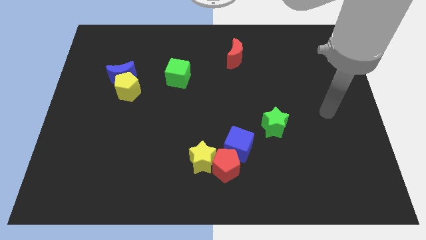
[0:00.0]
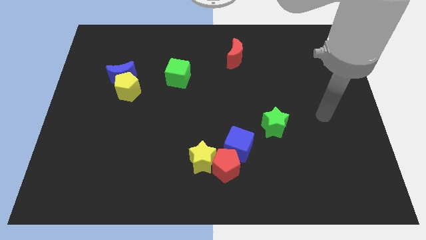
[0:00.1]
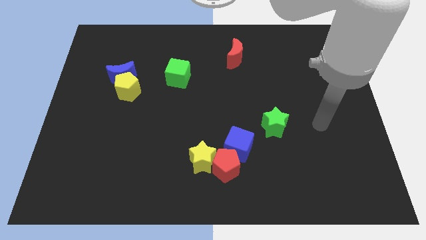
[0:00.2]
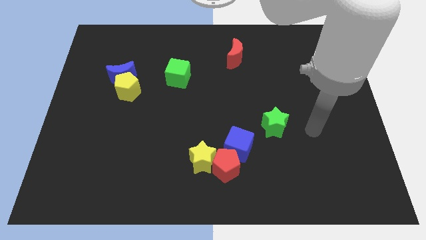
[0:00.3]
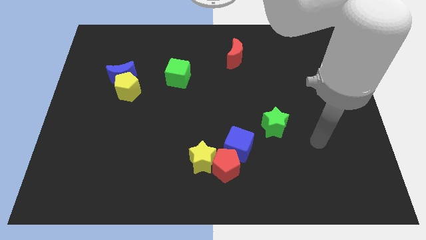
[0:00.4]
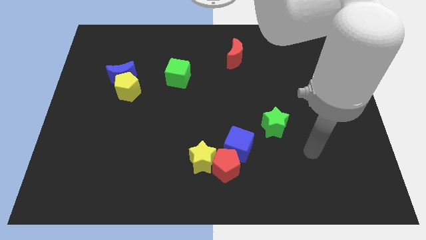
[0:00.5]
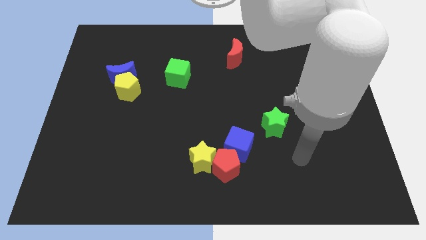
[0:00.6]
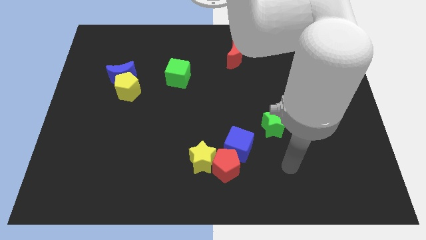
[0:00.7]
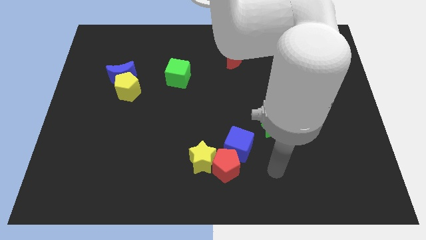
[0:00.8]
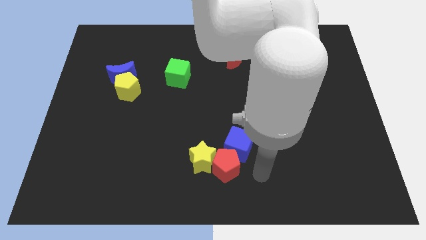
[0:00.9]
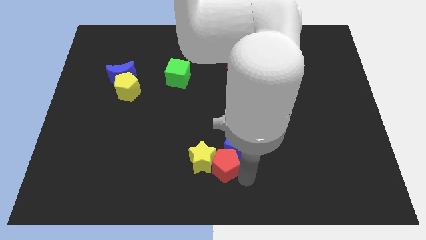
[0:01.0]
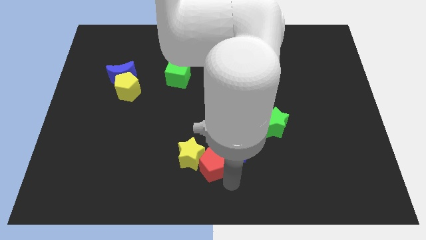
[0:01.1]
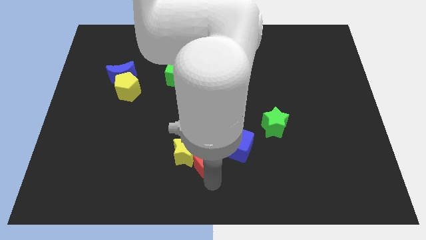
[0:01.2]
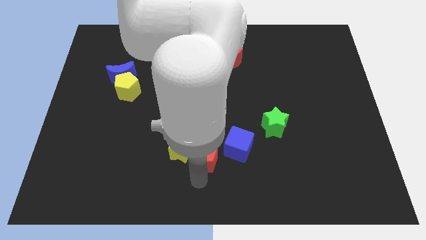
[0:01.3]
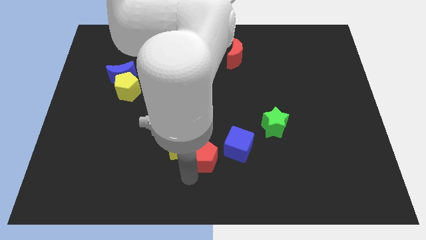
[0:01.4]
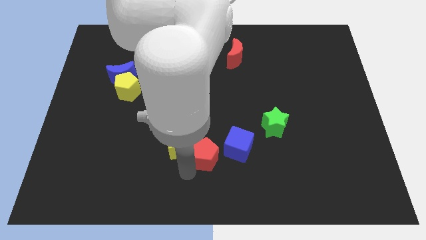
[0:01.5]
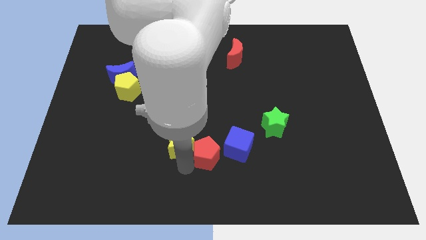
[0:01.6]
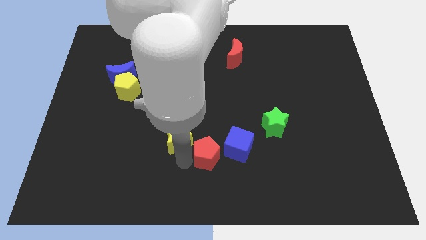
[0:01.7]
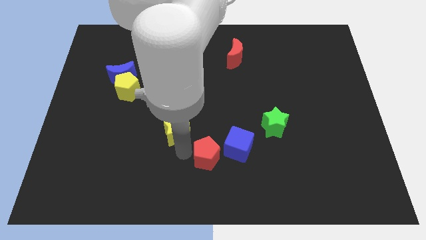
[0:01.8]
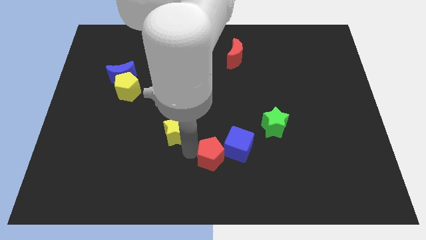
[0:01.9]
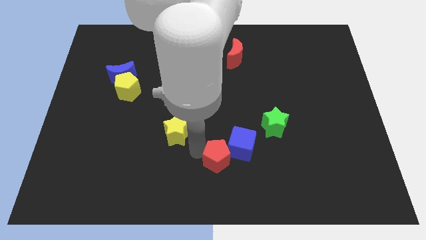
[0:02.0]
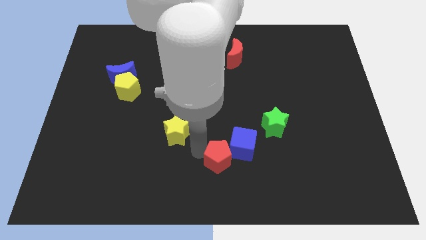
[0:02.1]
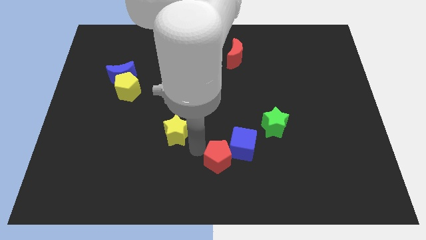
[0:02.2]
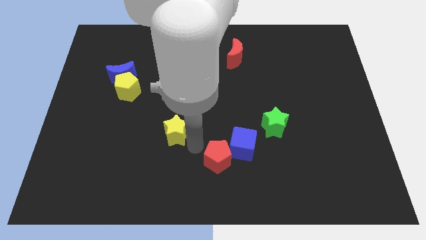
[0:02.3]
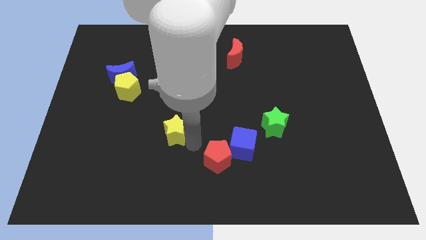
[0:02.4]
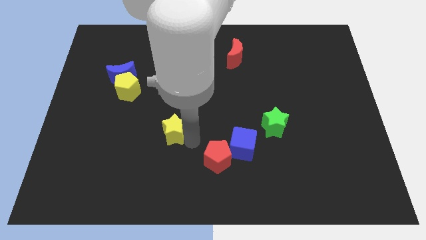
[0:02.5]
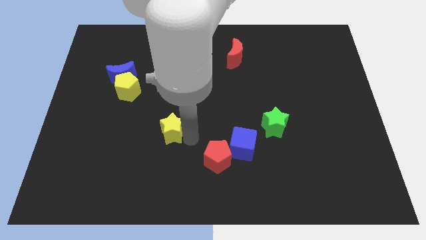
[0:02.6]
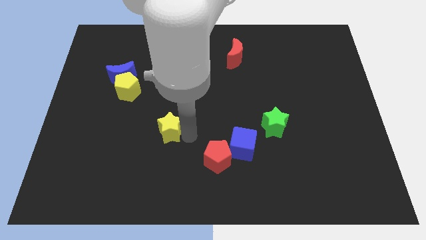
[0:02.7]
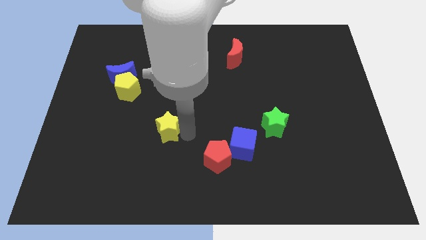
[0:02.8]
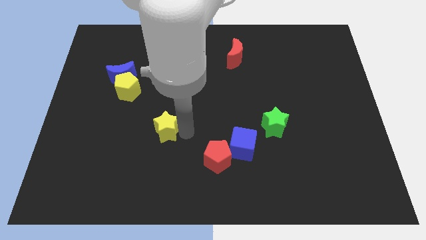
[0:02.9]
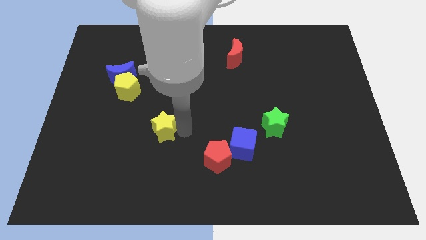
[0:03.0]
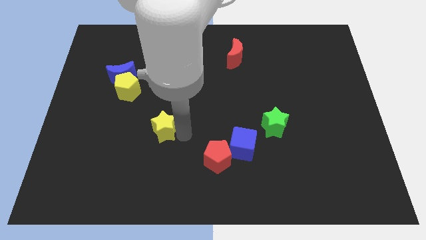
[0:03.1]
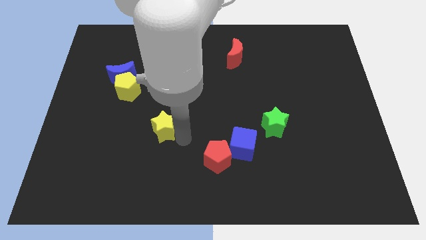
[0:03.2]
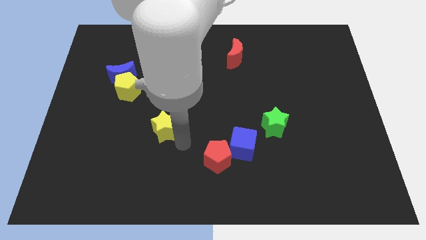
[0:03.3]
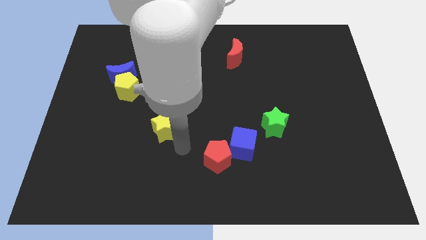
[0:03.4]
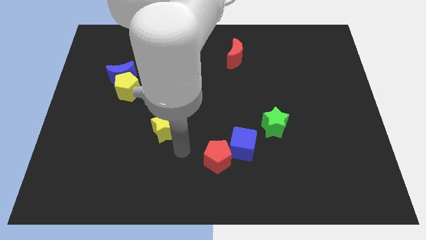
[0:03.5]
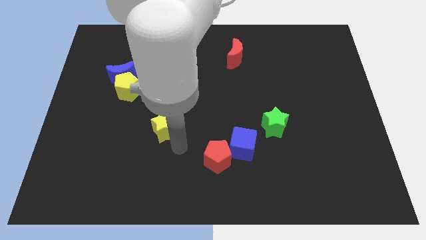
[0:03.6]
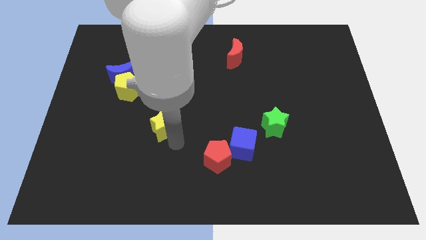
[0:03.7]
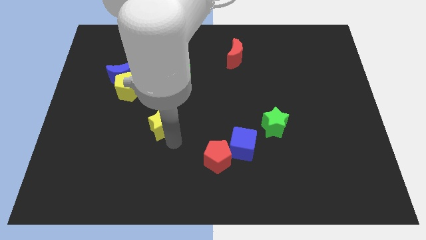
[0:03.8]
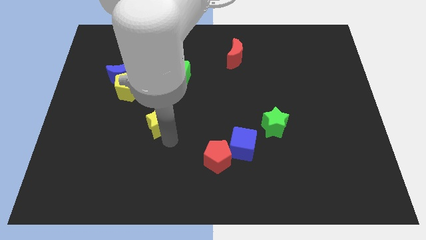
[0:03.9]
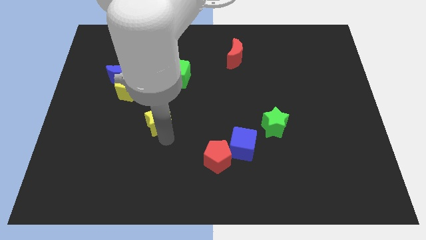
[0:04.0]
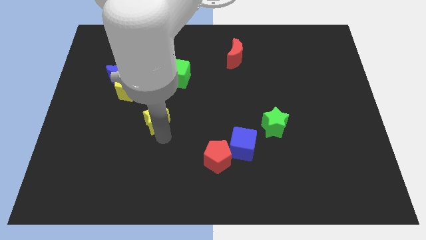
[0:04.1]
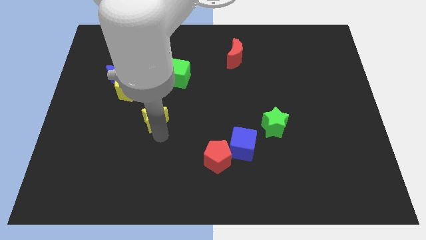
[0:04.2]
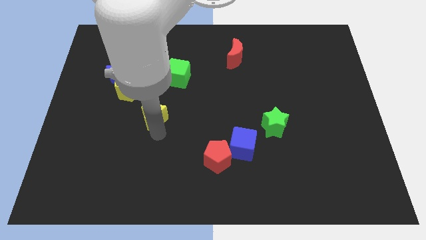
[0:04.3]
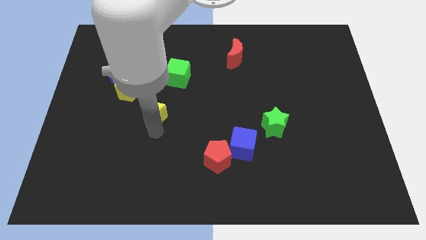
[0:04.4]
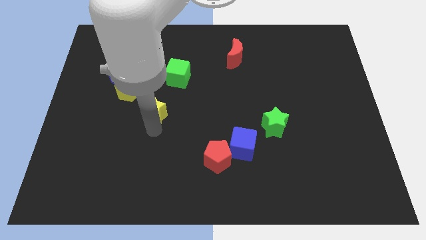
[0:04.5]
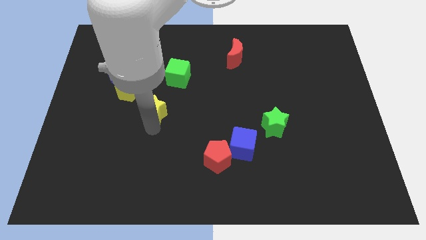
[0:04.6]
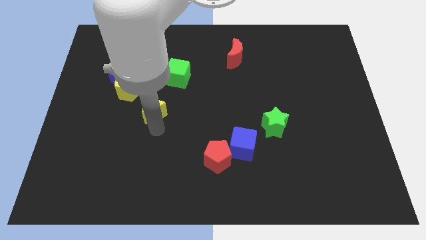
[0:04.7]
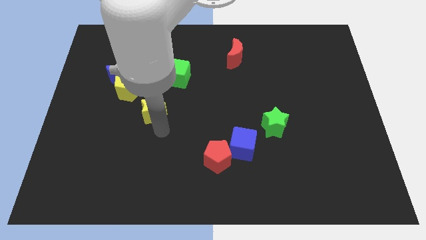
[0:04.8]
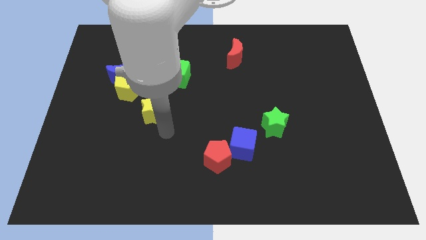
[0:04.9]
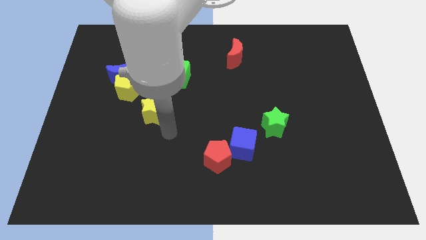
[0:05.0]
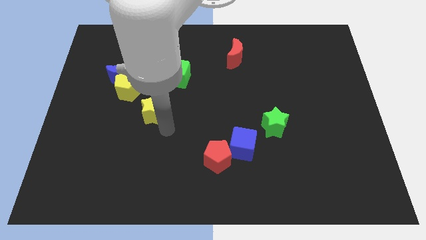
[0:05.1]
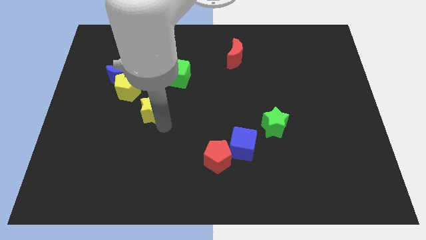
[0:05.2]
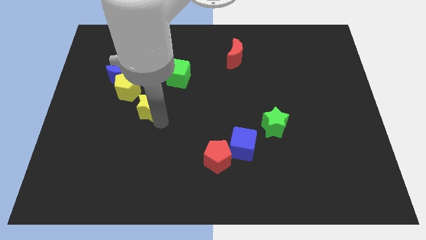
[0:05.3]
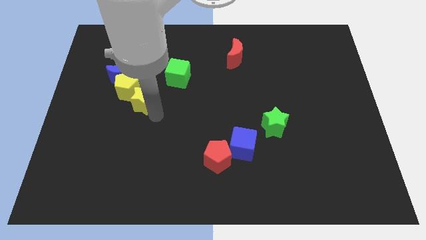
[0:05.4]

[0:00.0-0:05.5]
put the yellow star to the yellow pentagon

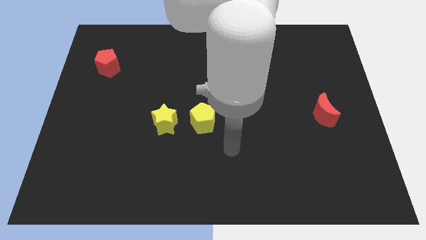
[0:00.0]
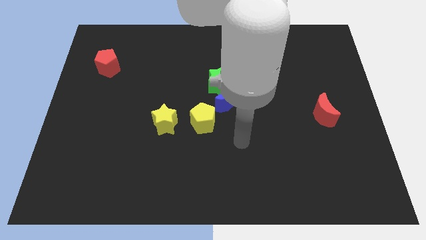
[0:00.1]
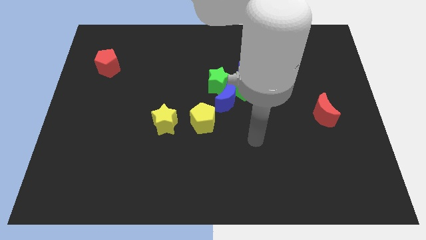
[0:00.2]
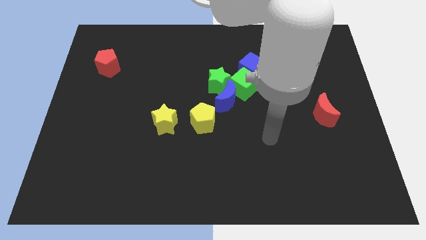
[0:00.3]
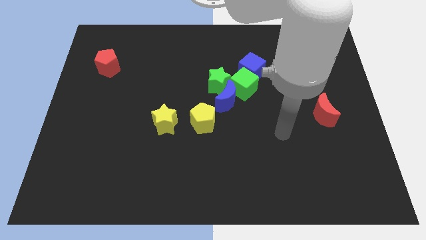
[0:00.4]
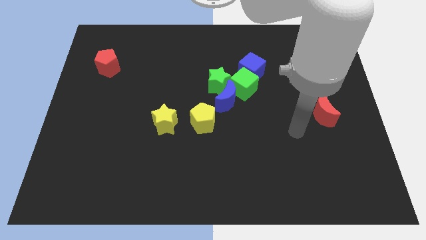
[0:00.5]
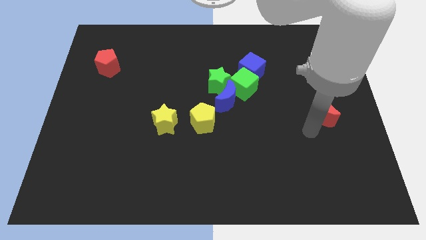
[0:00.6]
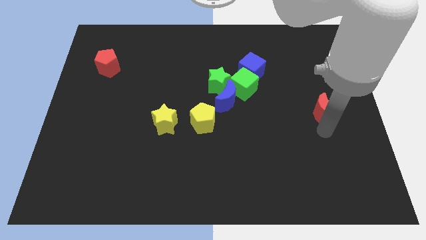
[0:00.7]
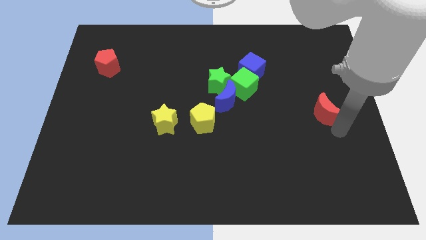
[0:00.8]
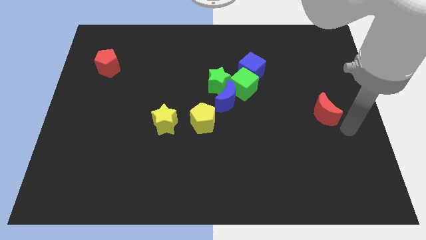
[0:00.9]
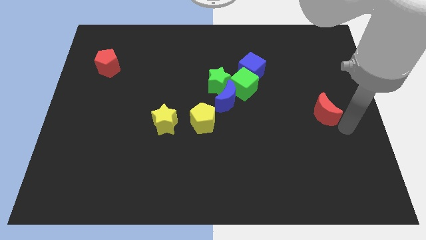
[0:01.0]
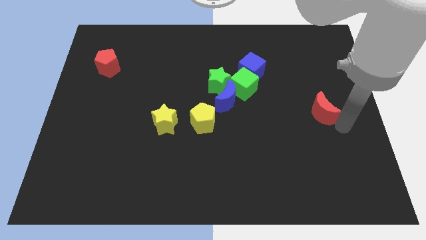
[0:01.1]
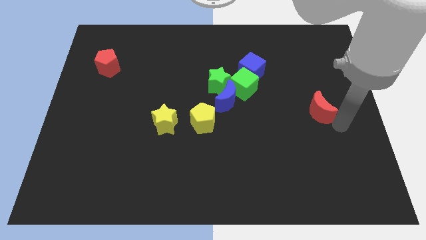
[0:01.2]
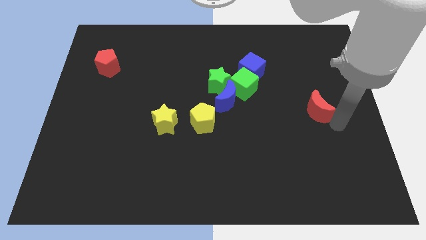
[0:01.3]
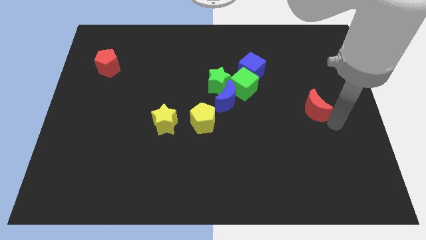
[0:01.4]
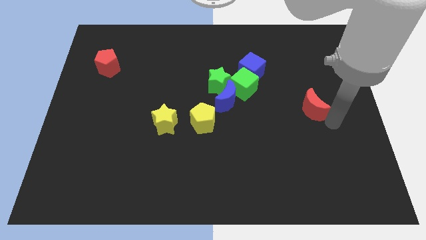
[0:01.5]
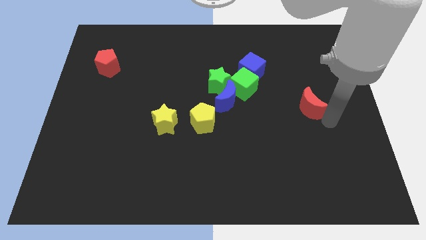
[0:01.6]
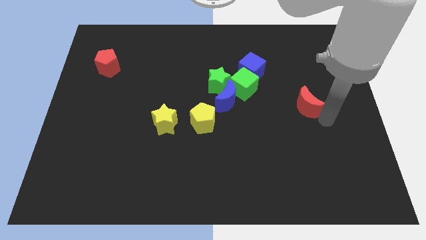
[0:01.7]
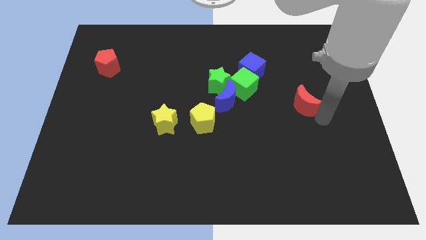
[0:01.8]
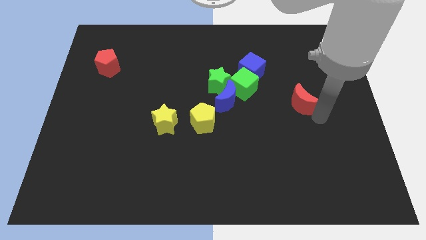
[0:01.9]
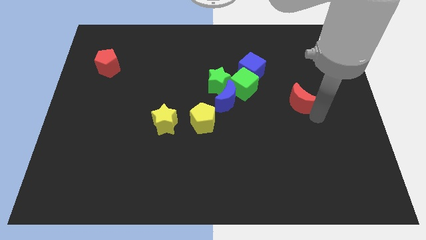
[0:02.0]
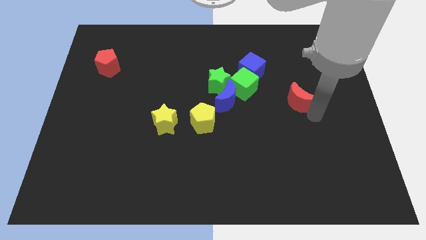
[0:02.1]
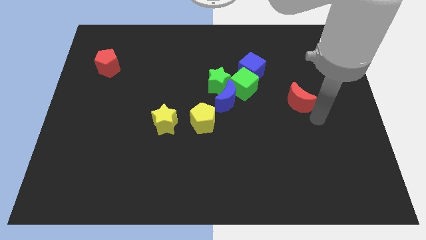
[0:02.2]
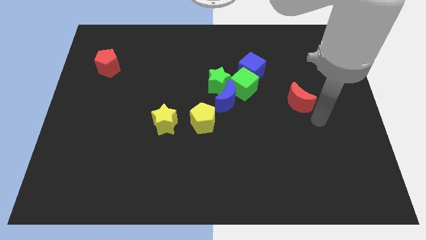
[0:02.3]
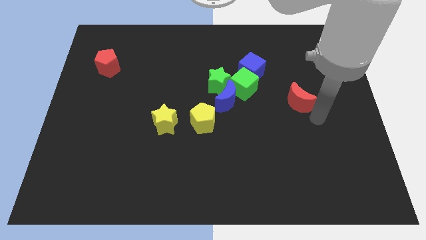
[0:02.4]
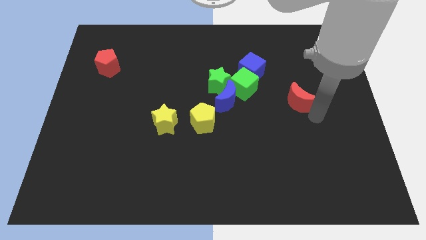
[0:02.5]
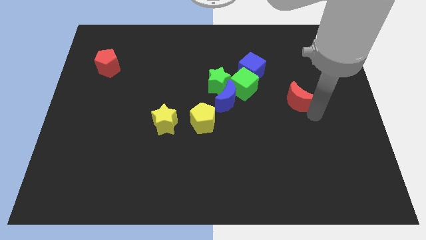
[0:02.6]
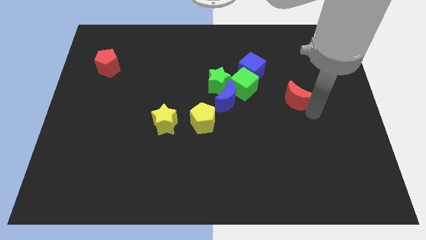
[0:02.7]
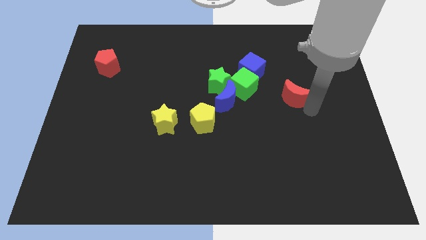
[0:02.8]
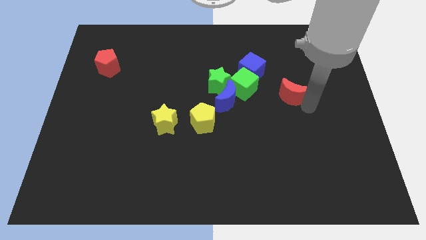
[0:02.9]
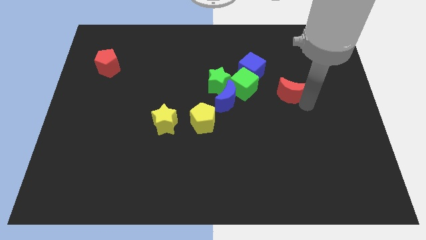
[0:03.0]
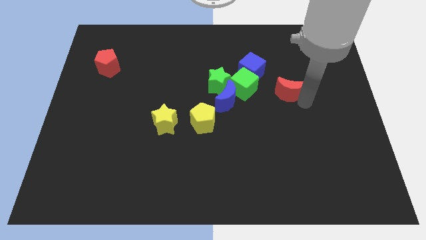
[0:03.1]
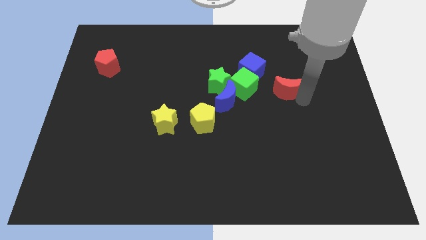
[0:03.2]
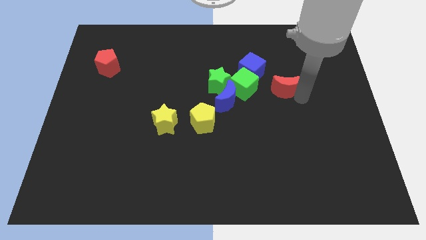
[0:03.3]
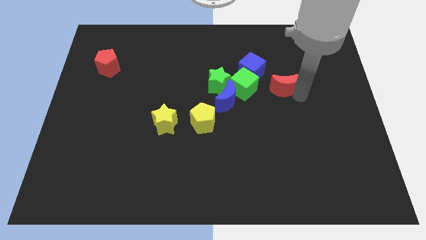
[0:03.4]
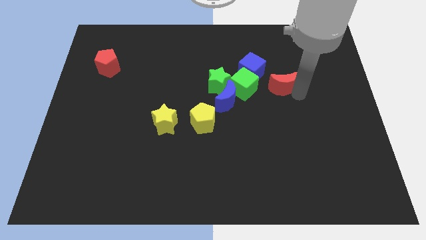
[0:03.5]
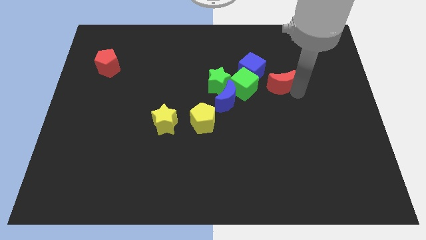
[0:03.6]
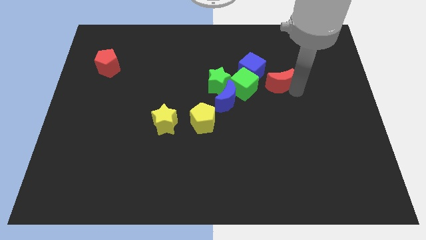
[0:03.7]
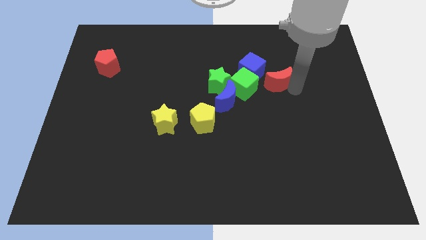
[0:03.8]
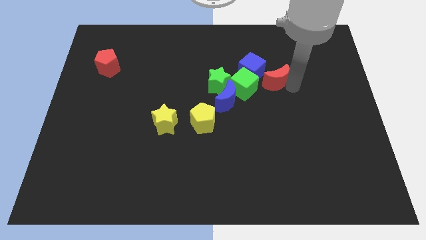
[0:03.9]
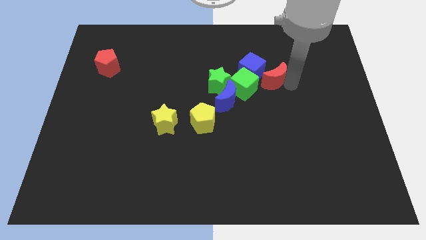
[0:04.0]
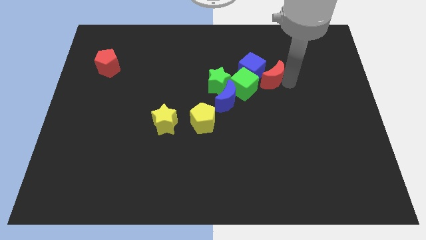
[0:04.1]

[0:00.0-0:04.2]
slide the red moon close to the blue cube
